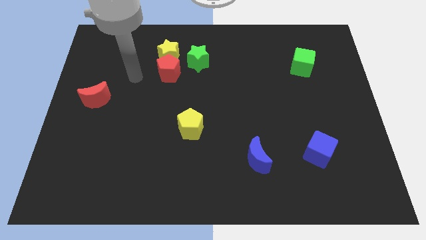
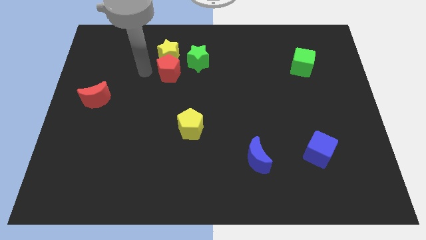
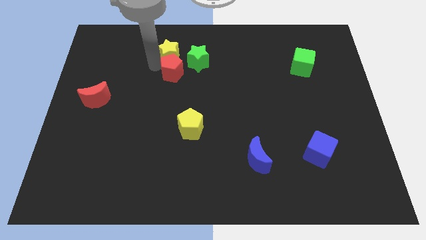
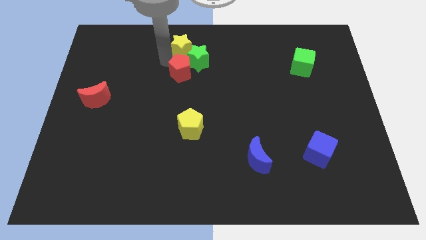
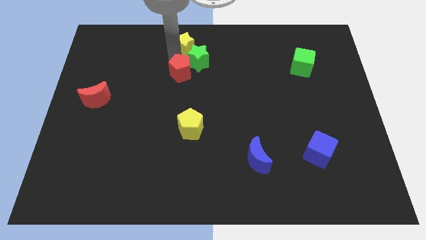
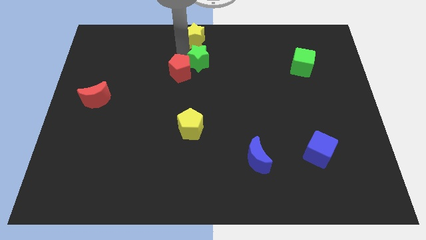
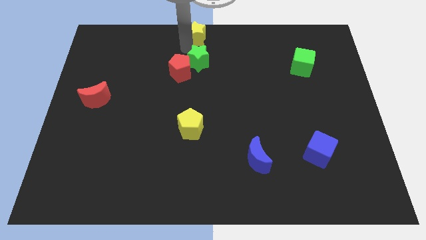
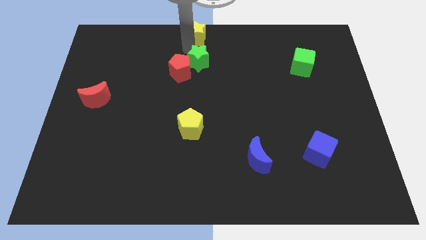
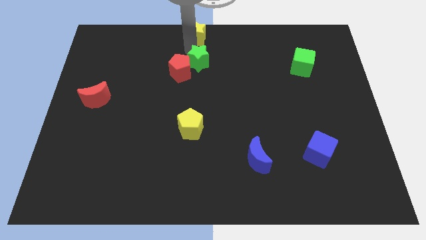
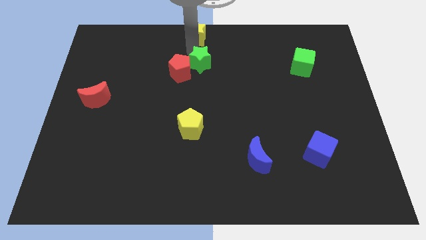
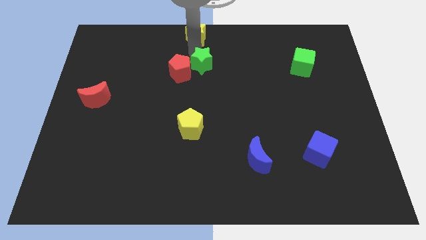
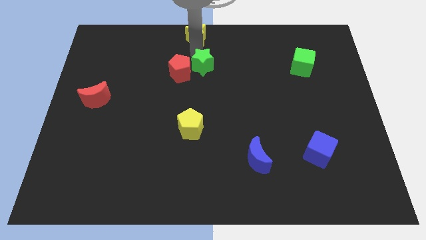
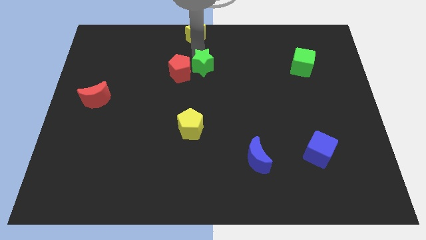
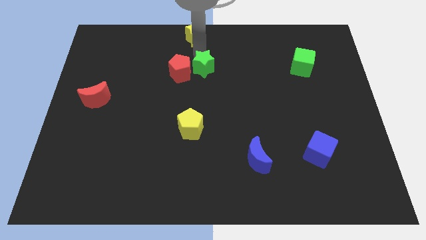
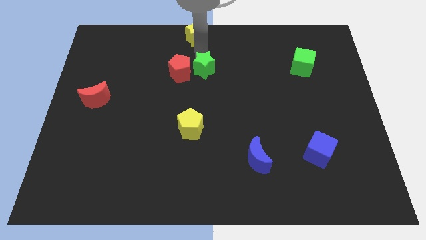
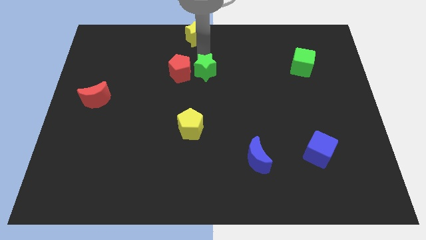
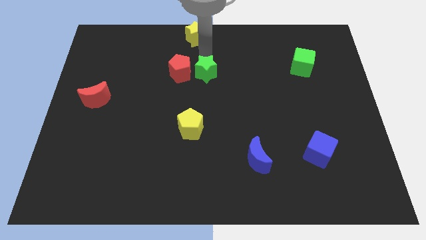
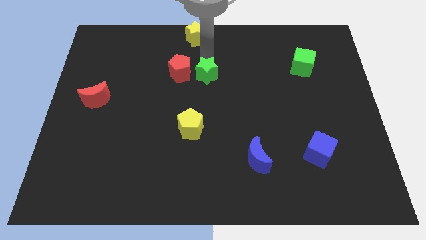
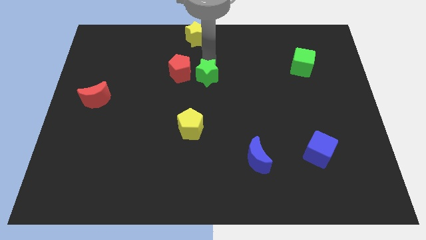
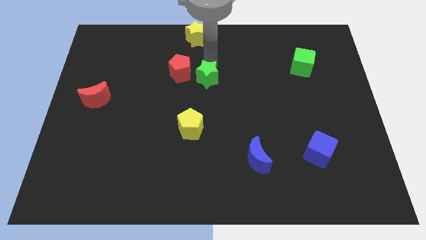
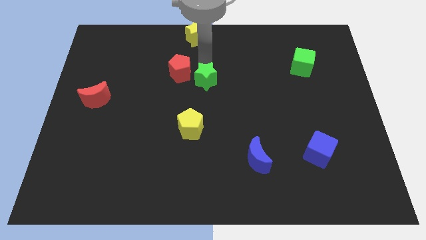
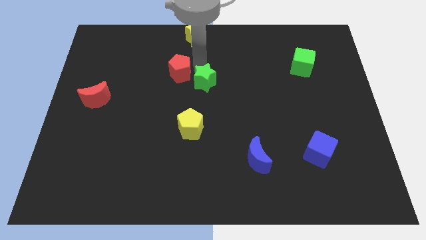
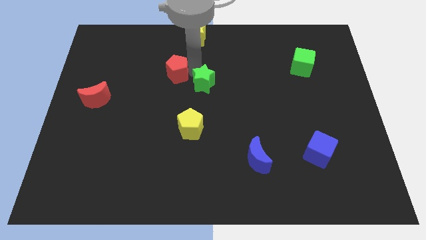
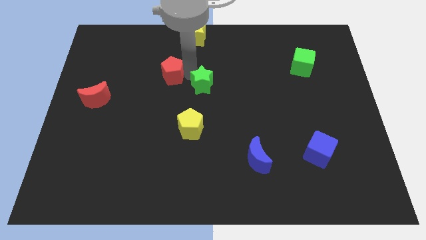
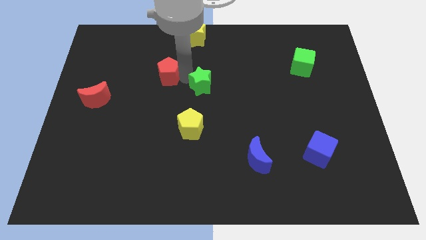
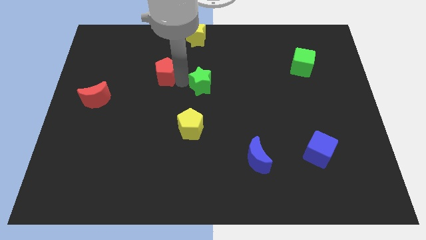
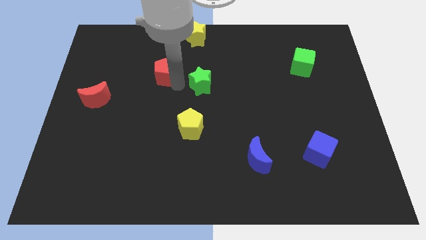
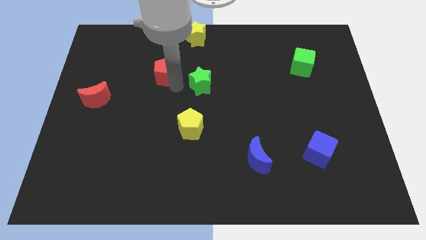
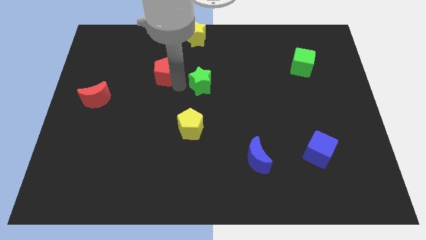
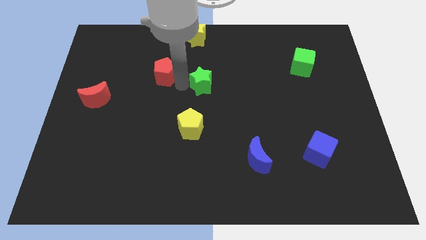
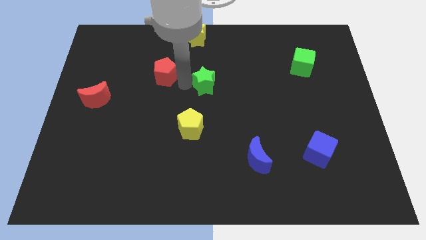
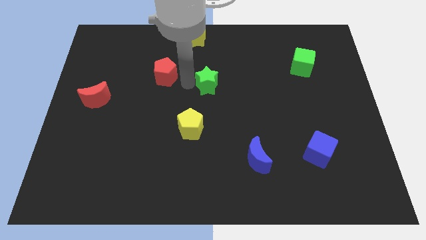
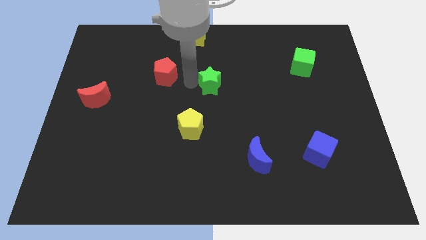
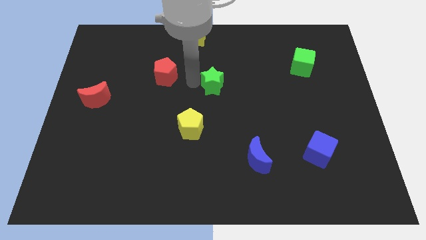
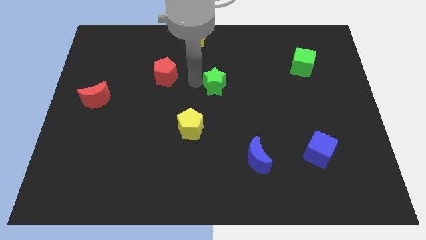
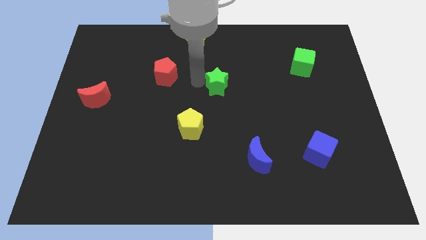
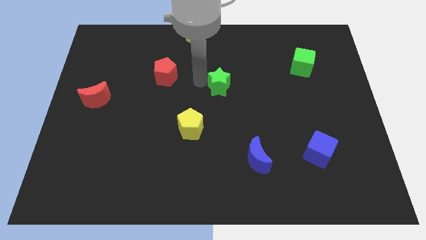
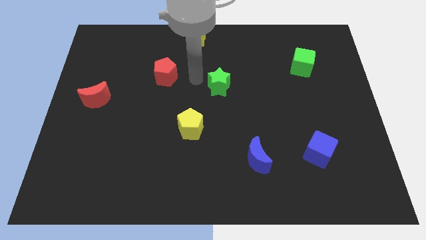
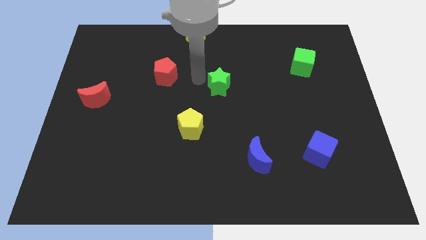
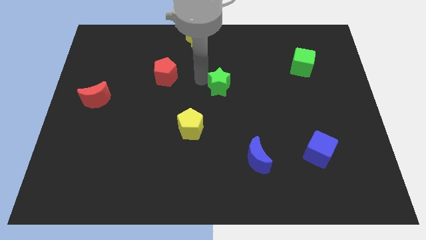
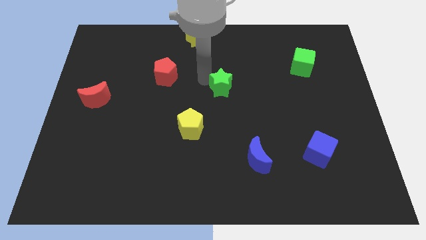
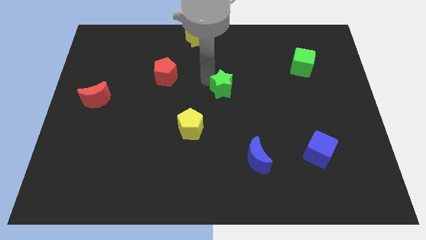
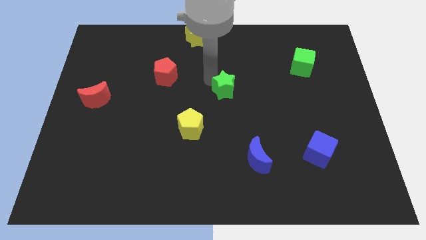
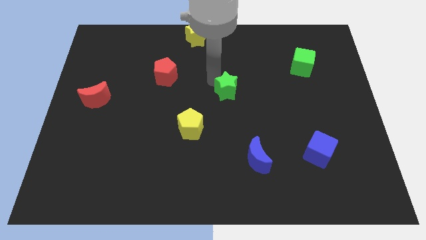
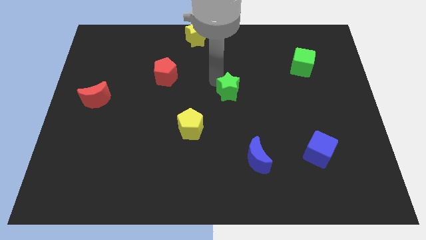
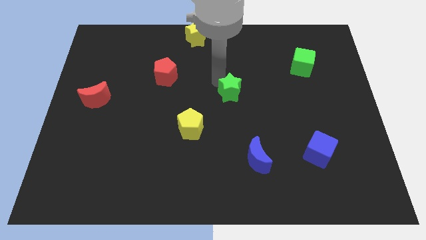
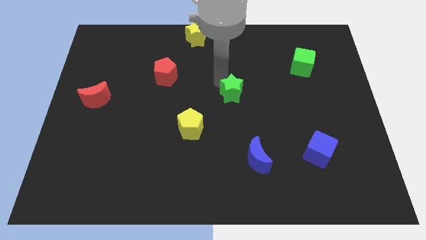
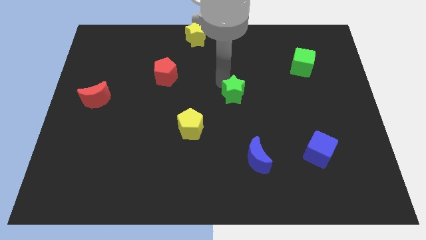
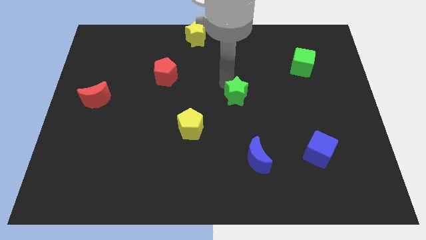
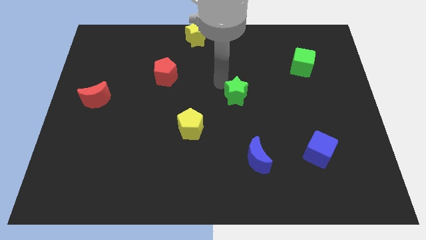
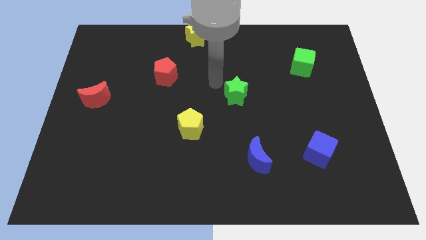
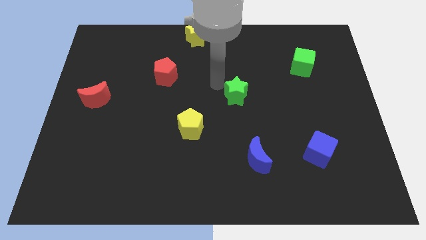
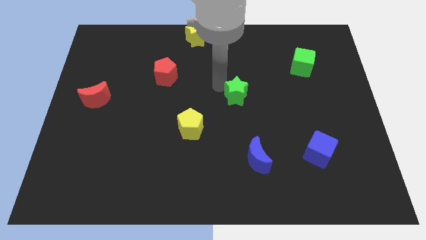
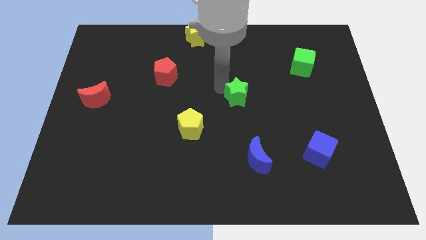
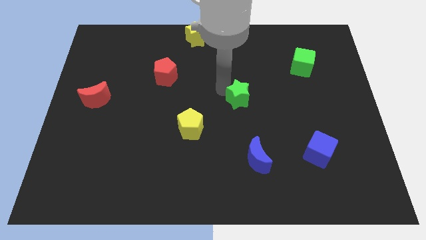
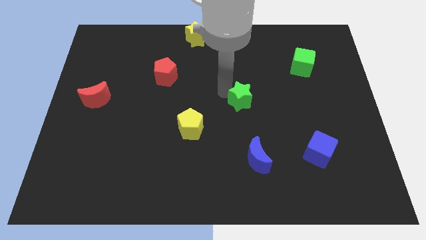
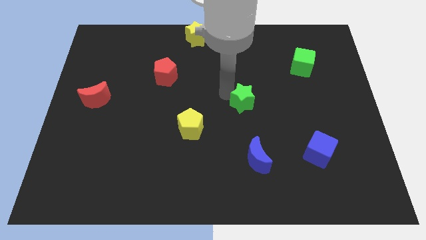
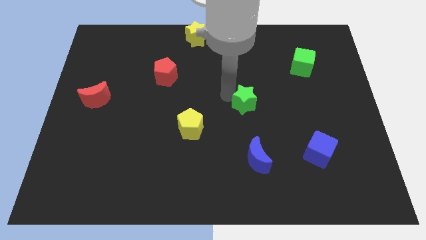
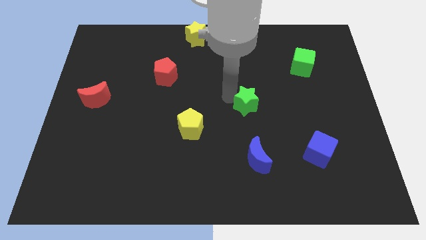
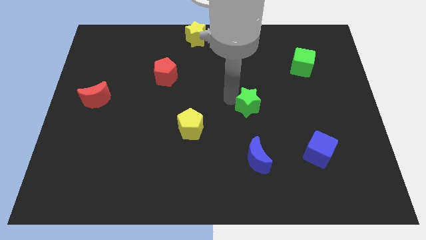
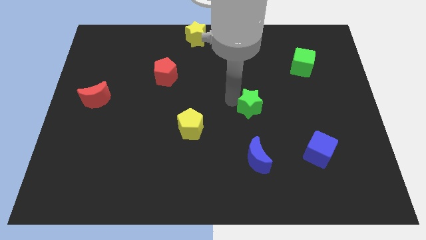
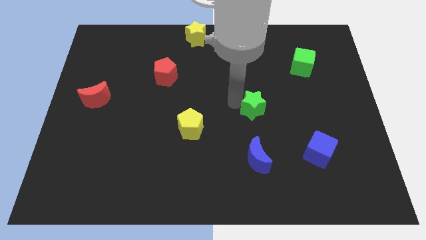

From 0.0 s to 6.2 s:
slide the green star down and to the right diagonally

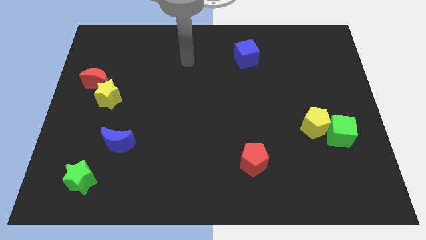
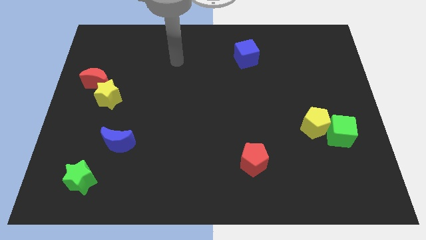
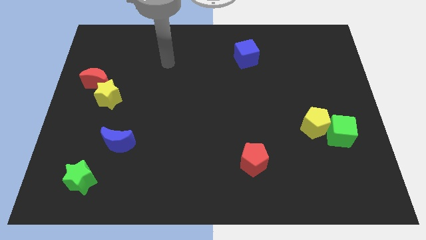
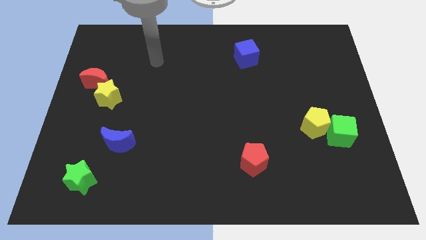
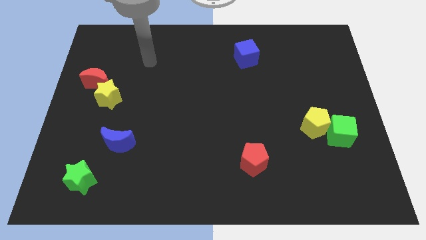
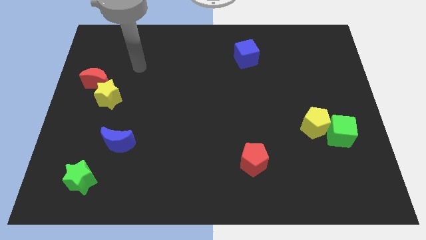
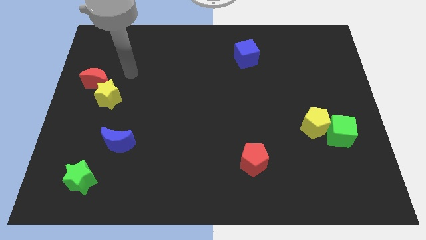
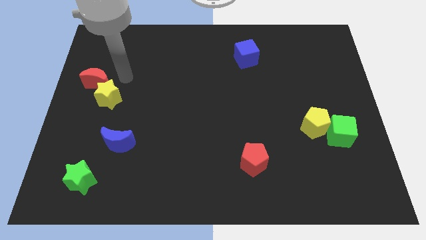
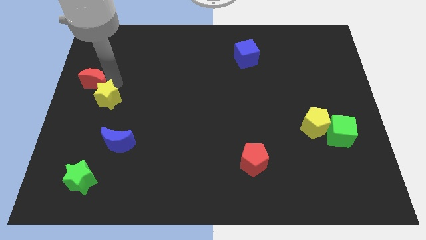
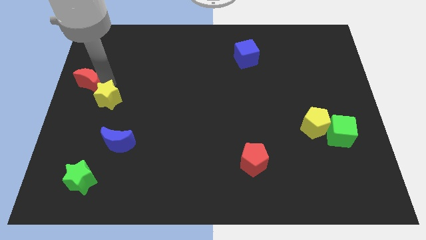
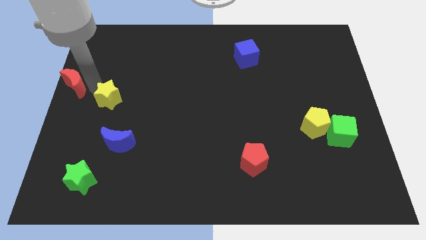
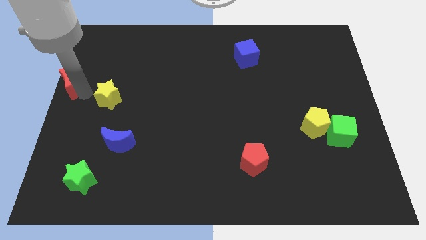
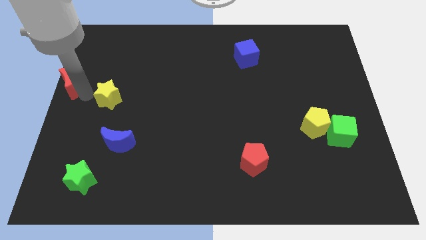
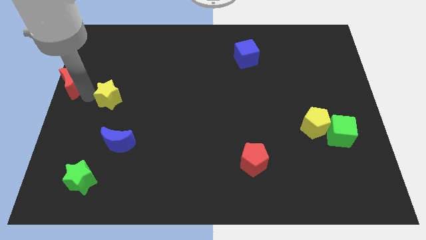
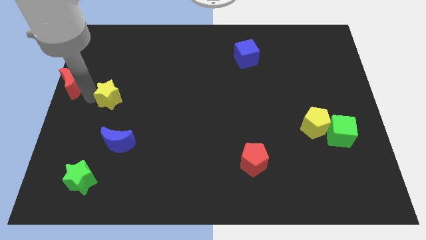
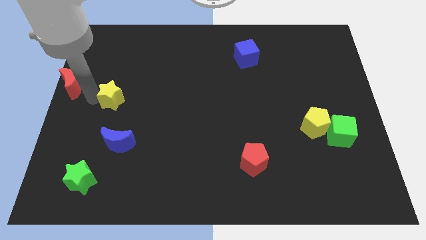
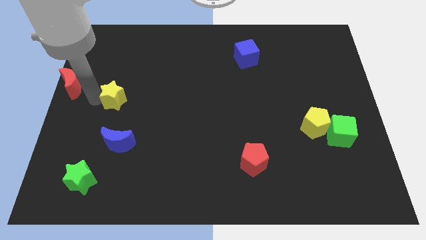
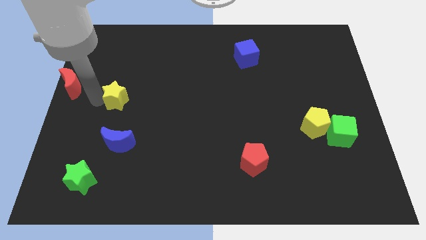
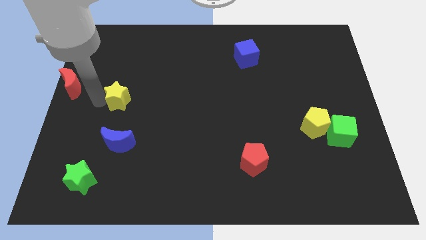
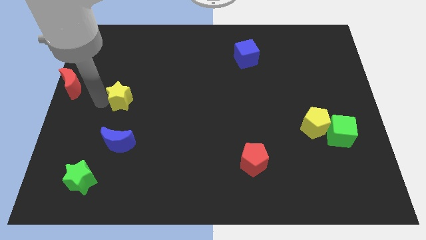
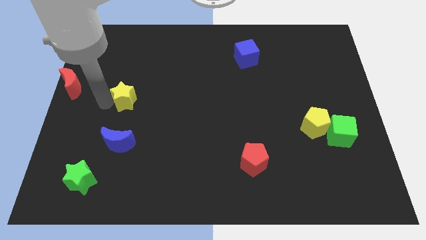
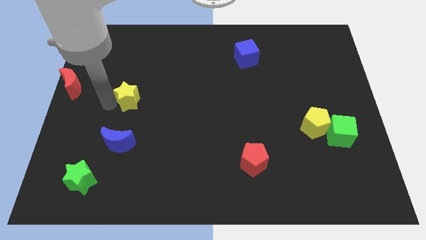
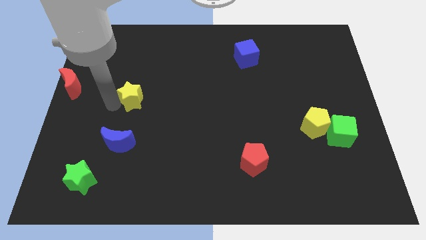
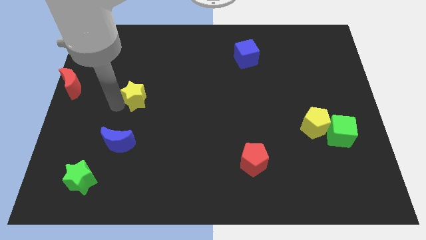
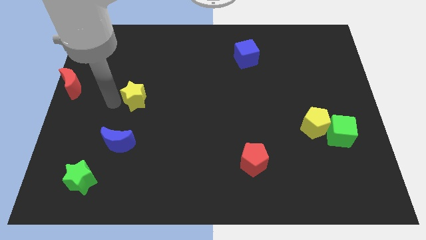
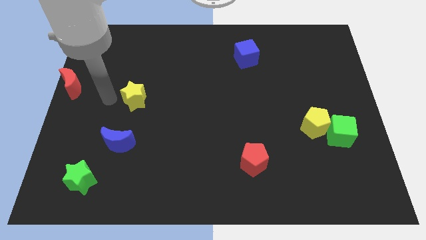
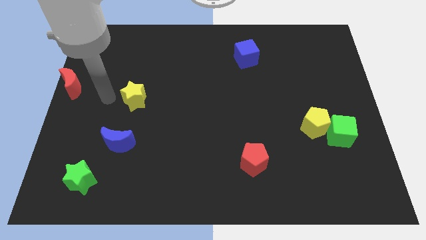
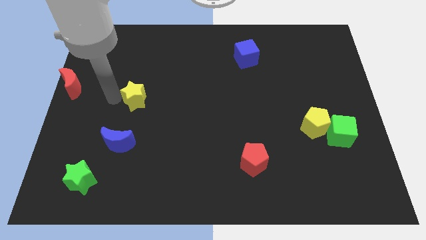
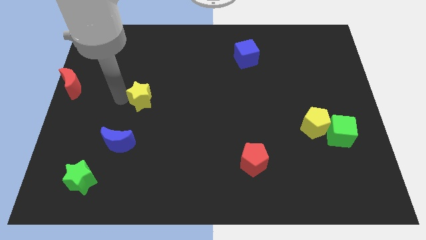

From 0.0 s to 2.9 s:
move the yellow star a bit to the right
